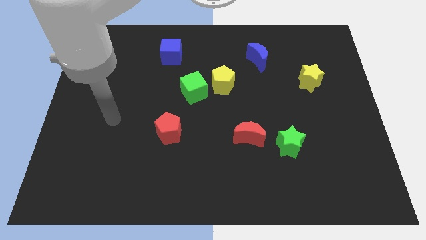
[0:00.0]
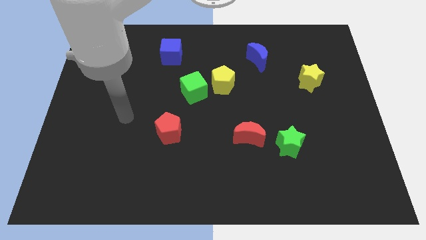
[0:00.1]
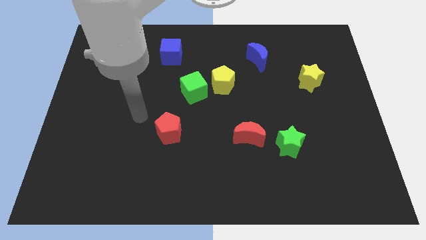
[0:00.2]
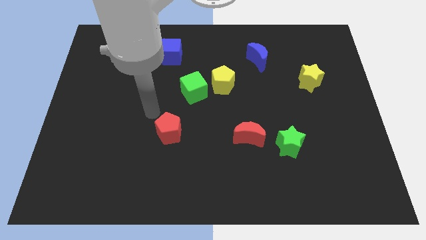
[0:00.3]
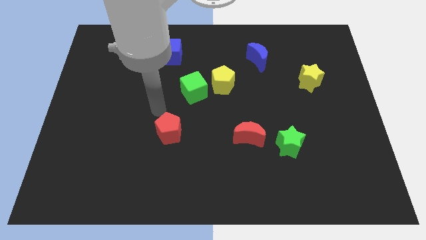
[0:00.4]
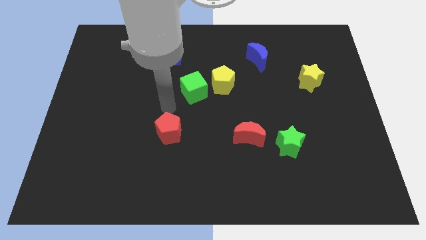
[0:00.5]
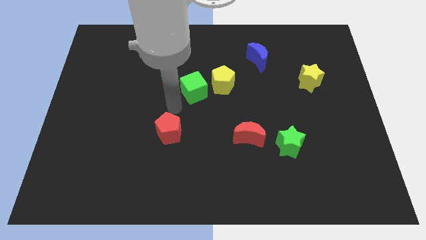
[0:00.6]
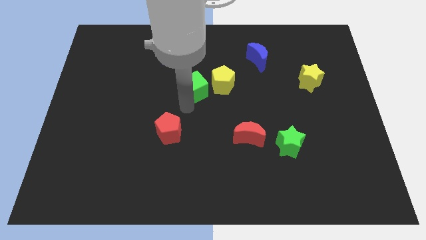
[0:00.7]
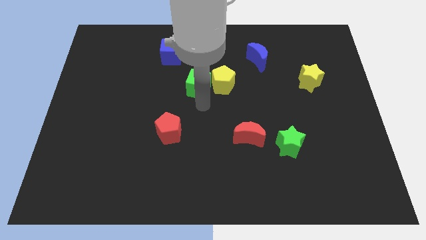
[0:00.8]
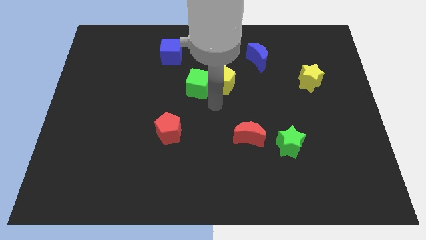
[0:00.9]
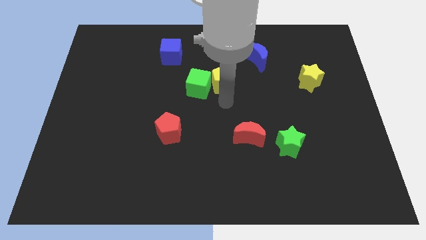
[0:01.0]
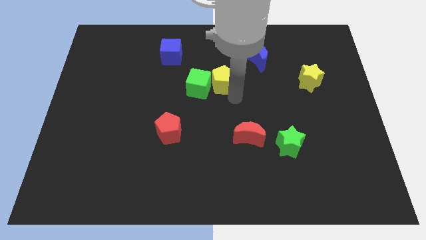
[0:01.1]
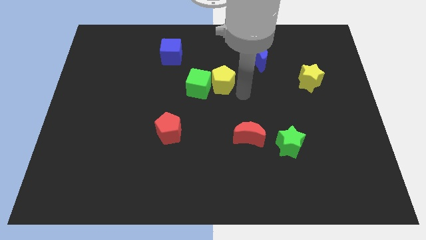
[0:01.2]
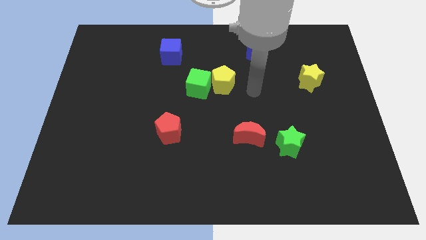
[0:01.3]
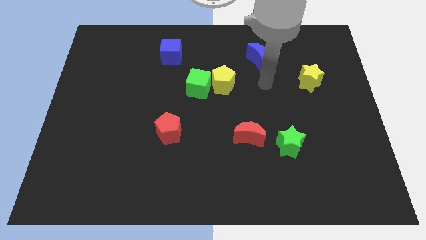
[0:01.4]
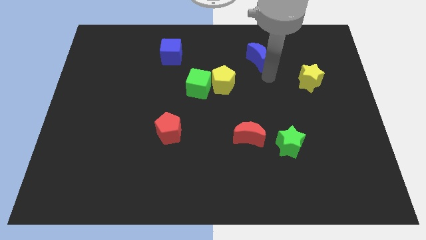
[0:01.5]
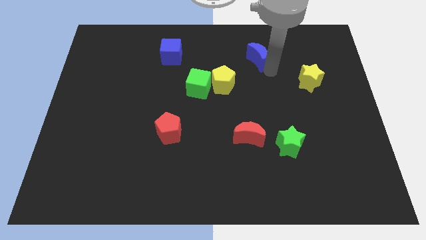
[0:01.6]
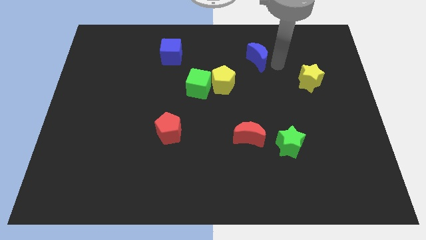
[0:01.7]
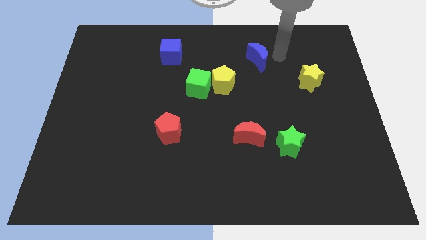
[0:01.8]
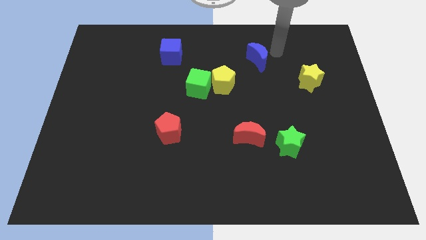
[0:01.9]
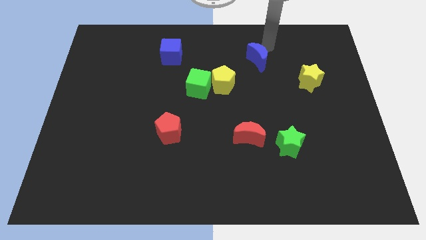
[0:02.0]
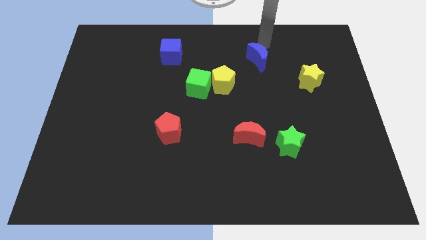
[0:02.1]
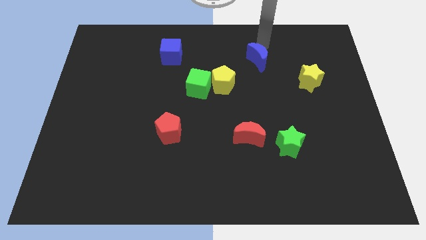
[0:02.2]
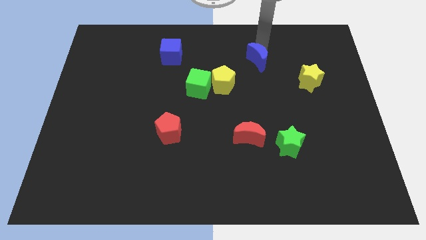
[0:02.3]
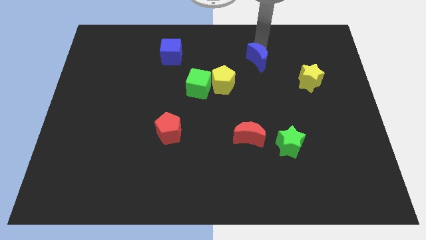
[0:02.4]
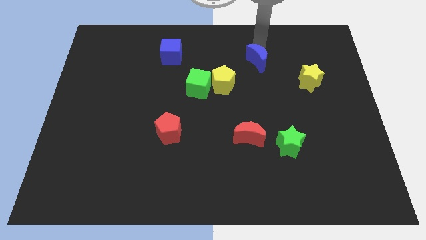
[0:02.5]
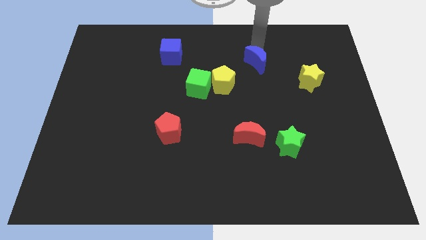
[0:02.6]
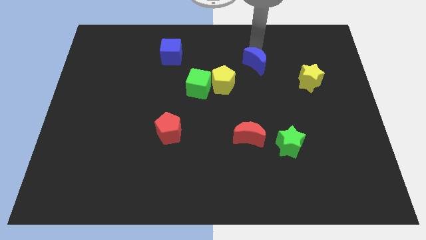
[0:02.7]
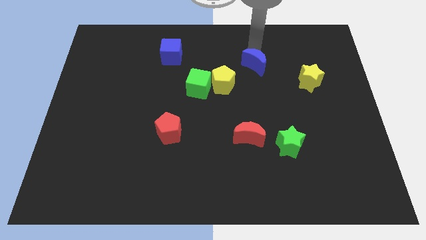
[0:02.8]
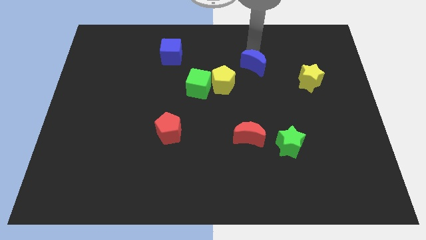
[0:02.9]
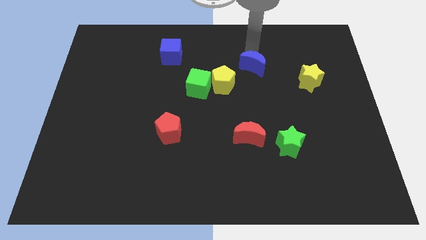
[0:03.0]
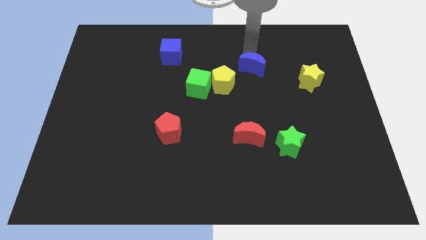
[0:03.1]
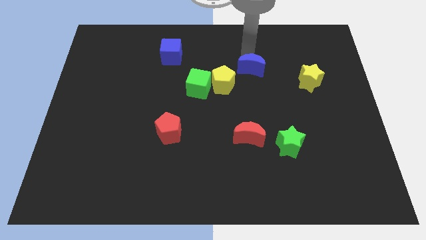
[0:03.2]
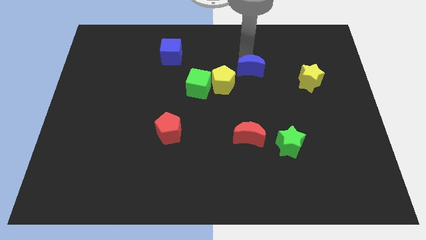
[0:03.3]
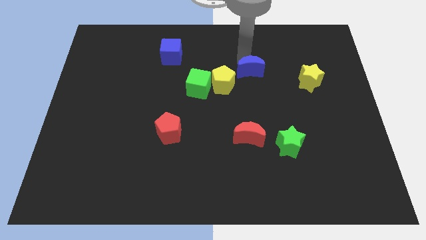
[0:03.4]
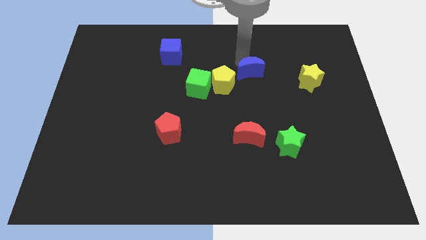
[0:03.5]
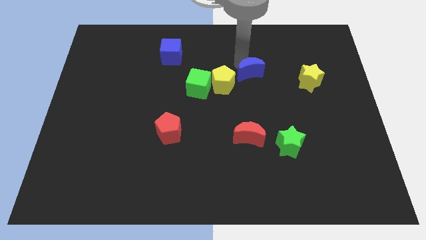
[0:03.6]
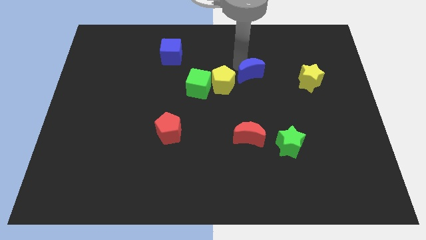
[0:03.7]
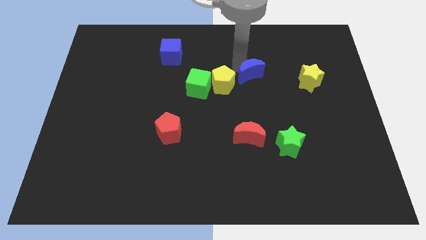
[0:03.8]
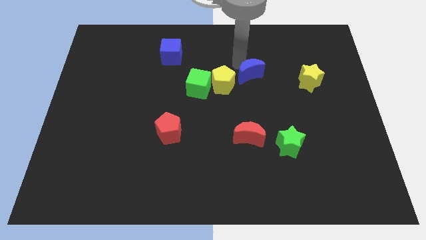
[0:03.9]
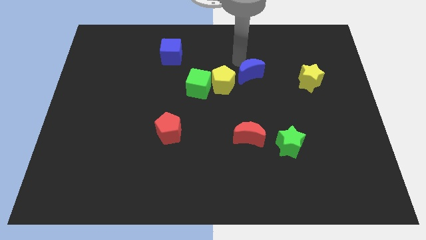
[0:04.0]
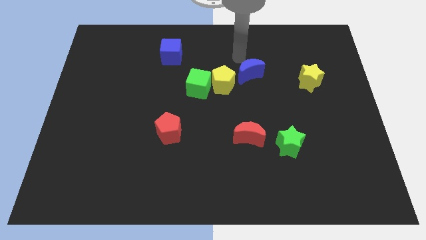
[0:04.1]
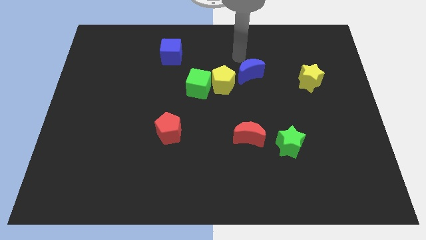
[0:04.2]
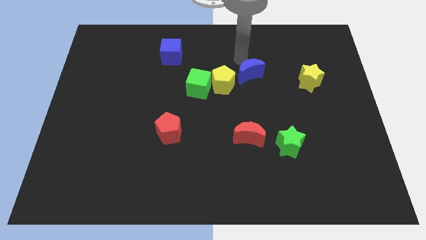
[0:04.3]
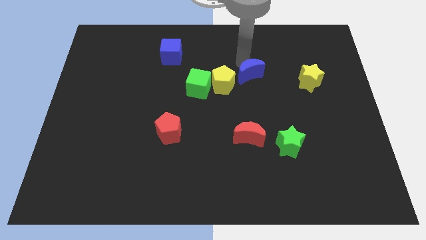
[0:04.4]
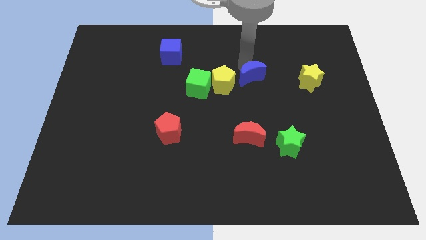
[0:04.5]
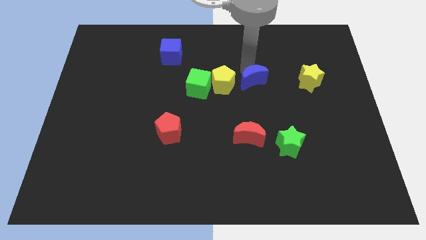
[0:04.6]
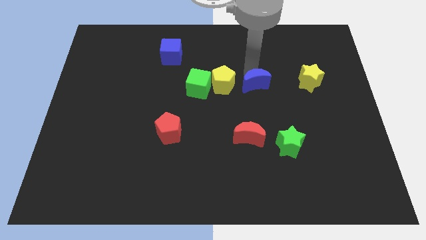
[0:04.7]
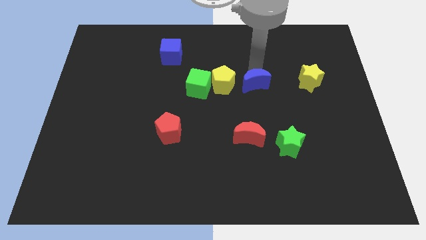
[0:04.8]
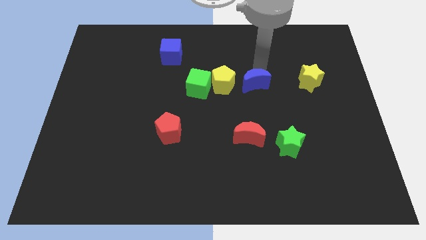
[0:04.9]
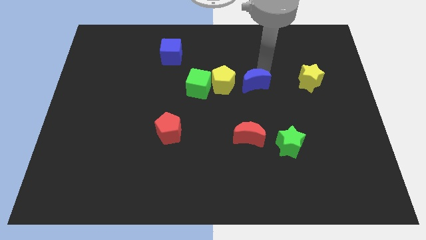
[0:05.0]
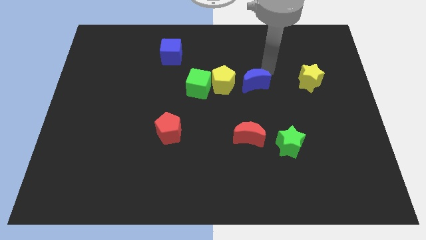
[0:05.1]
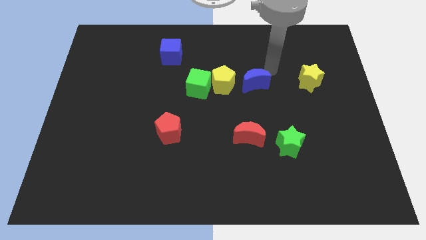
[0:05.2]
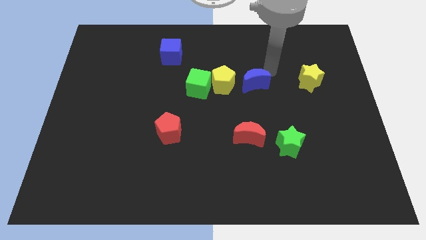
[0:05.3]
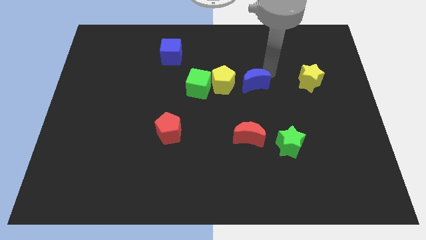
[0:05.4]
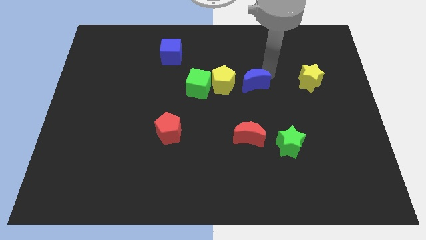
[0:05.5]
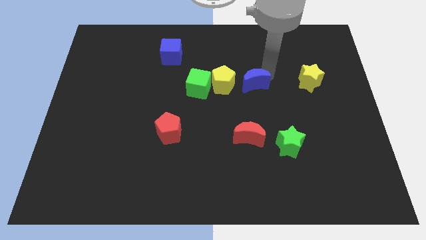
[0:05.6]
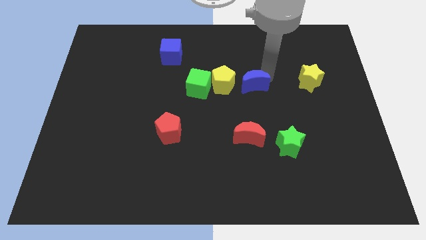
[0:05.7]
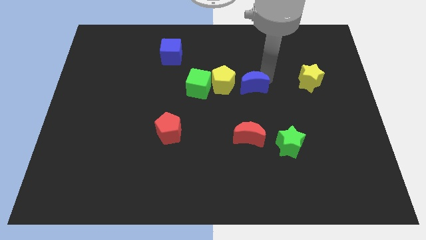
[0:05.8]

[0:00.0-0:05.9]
move the blue moon down and to the left slightly

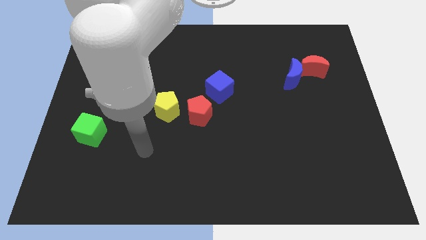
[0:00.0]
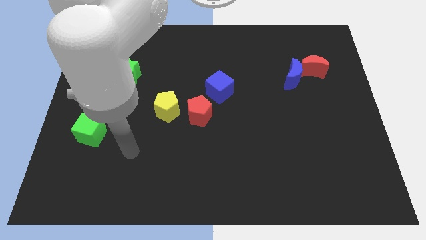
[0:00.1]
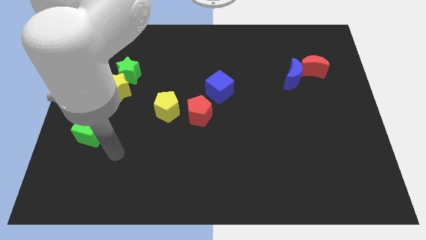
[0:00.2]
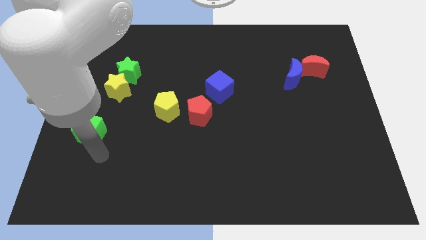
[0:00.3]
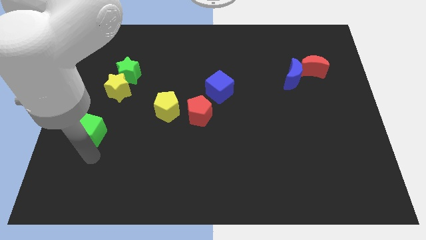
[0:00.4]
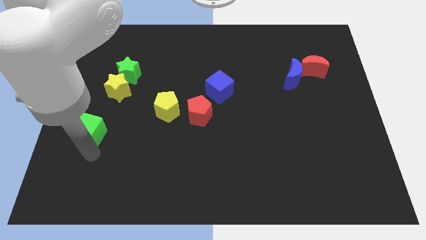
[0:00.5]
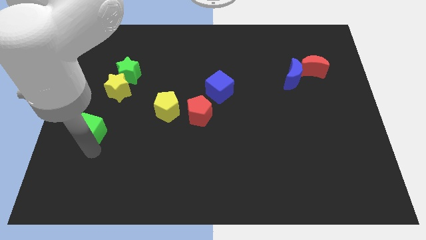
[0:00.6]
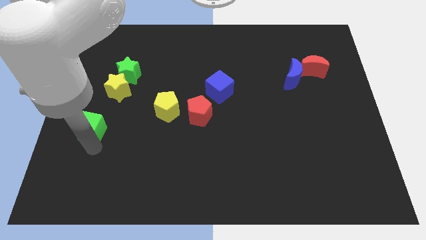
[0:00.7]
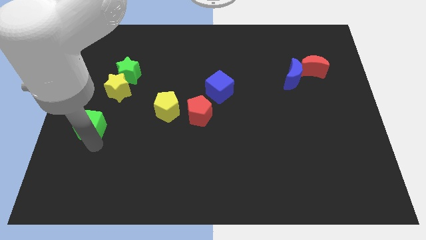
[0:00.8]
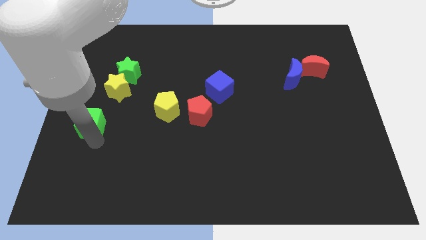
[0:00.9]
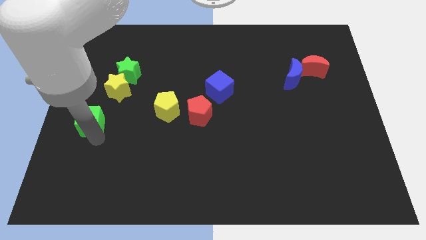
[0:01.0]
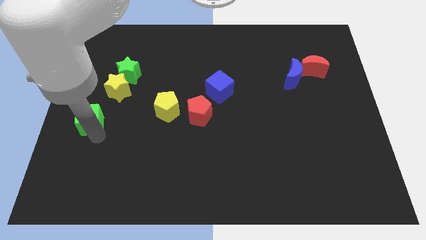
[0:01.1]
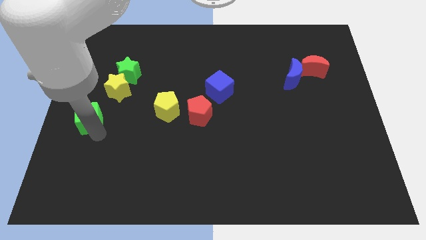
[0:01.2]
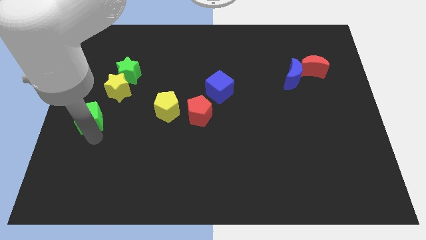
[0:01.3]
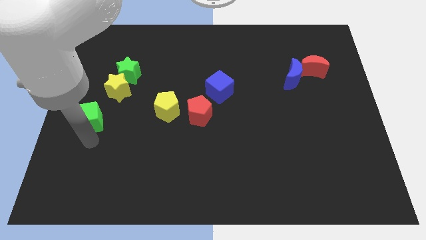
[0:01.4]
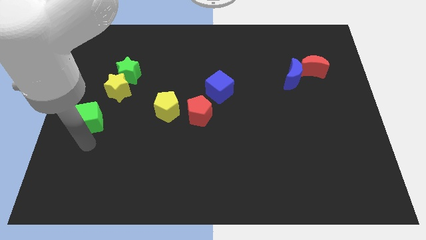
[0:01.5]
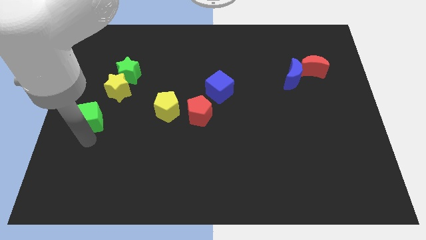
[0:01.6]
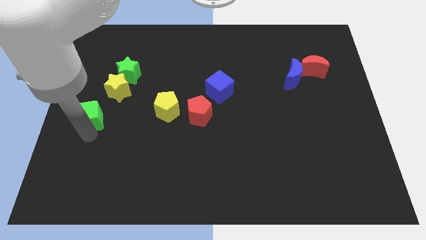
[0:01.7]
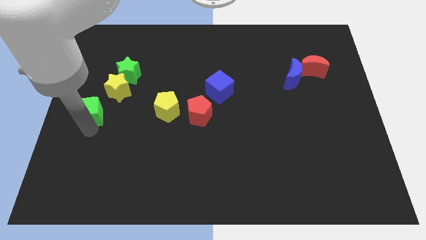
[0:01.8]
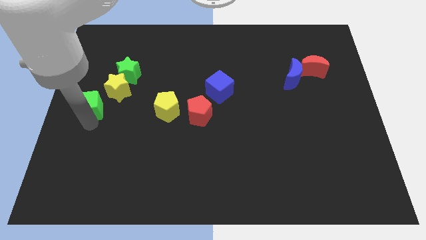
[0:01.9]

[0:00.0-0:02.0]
slide the green cube a little upwards

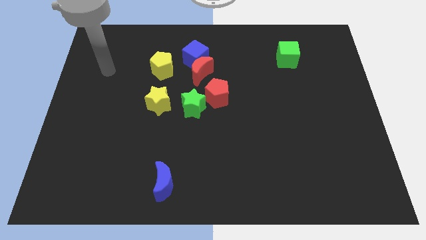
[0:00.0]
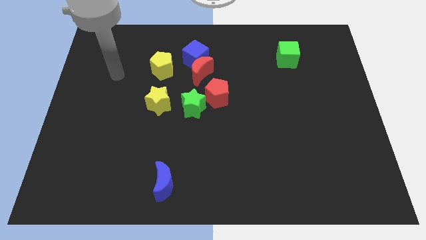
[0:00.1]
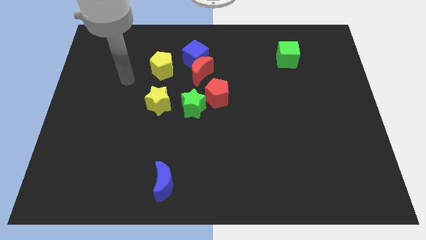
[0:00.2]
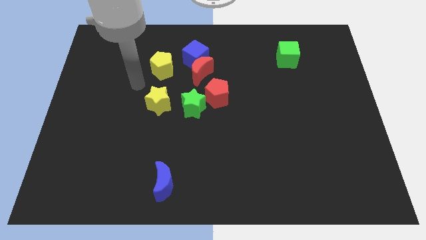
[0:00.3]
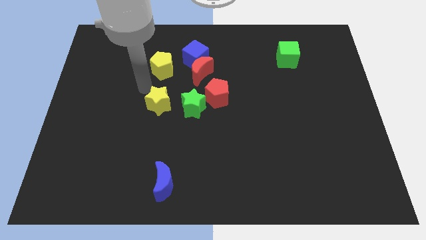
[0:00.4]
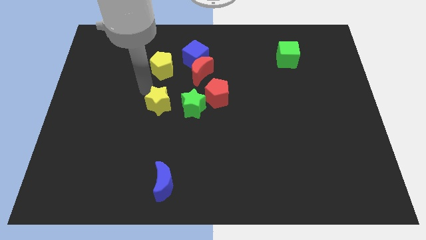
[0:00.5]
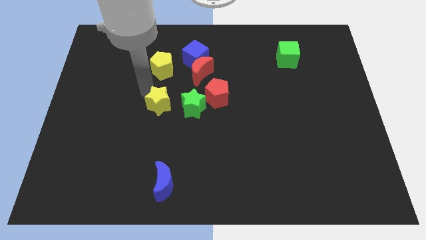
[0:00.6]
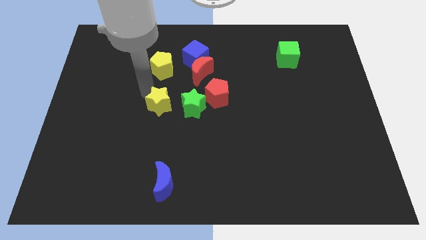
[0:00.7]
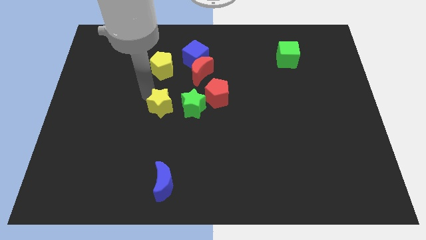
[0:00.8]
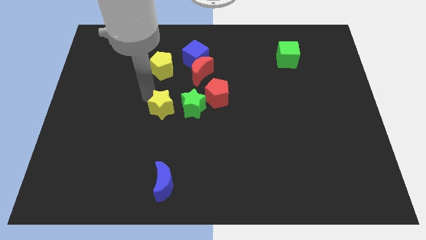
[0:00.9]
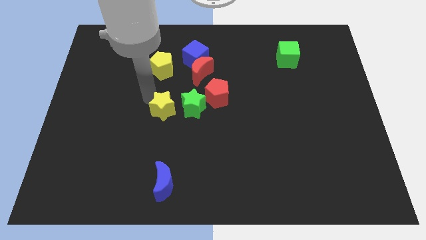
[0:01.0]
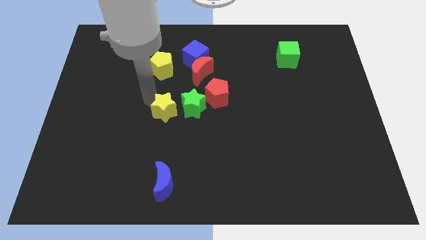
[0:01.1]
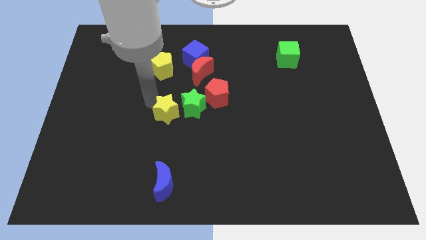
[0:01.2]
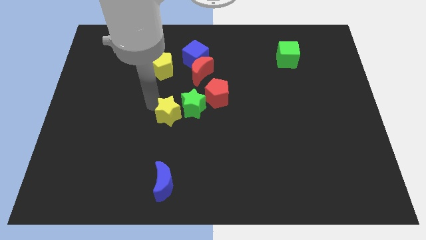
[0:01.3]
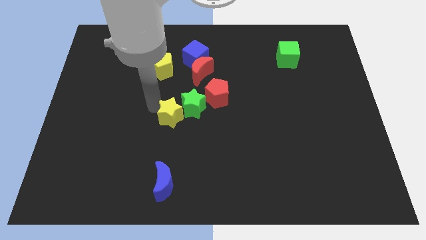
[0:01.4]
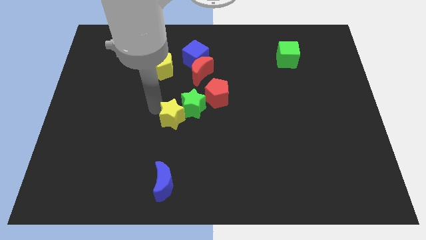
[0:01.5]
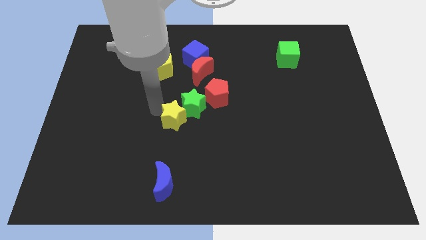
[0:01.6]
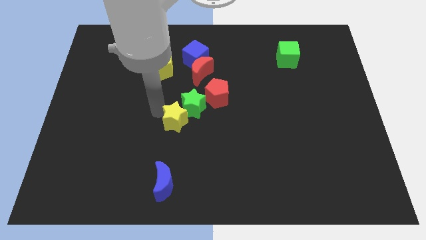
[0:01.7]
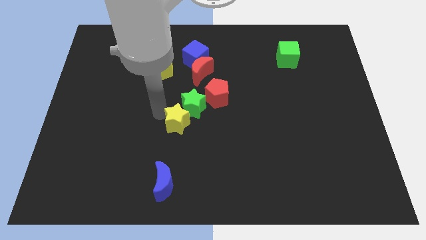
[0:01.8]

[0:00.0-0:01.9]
push the yellow star diagonally downwards and to the right a little
